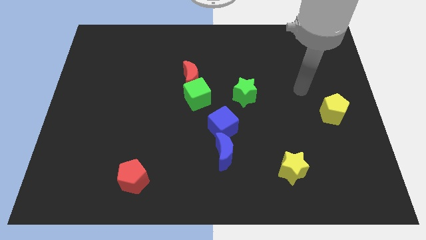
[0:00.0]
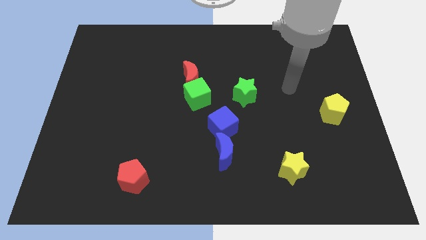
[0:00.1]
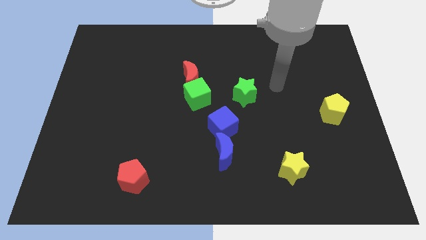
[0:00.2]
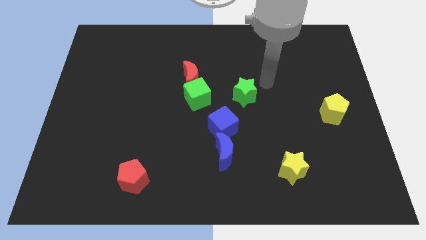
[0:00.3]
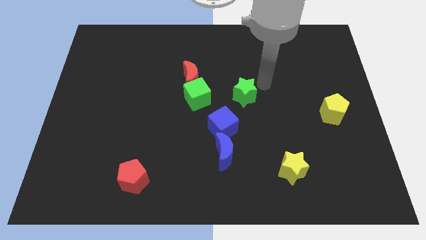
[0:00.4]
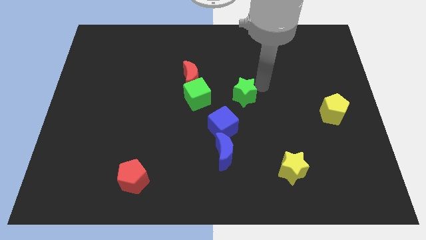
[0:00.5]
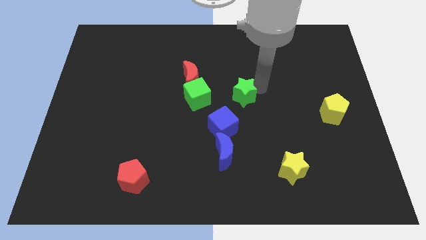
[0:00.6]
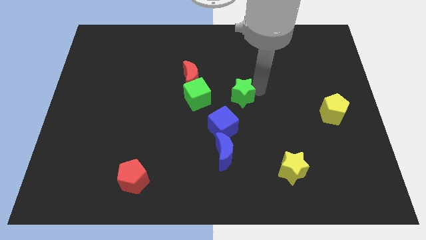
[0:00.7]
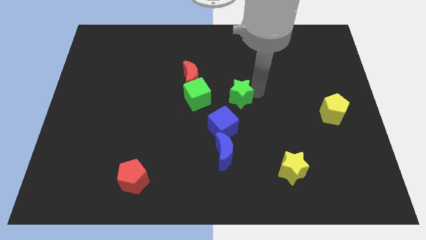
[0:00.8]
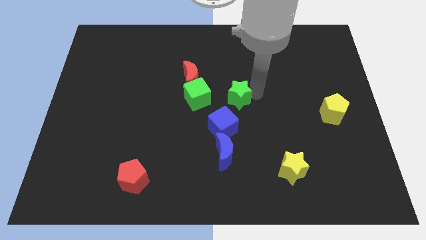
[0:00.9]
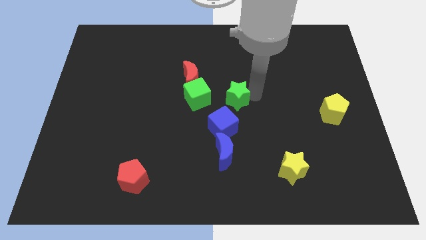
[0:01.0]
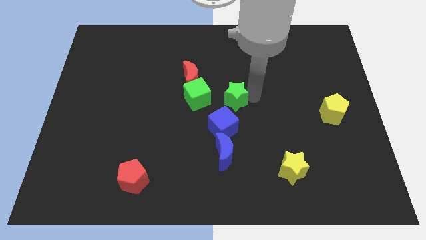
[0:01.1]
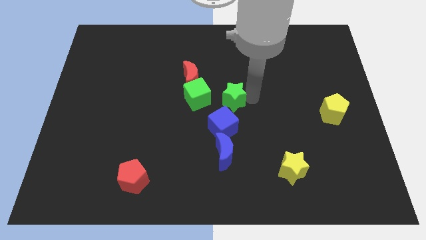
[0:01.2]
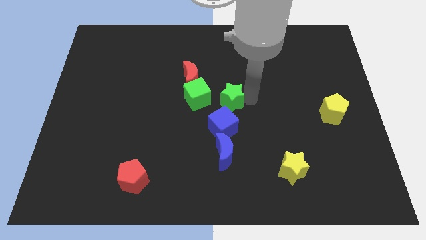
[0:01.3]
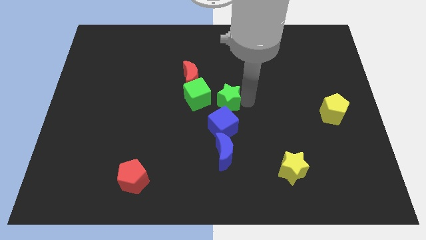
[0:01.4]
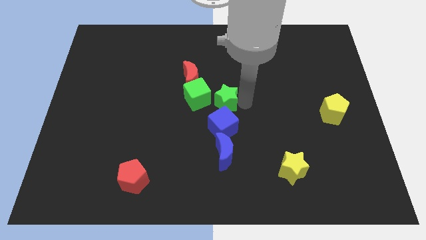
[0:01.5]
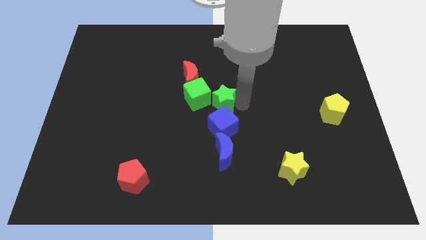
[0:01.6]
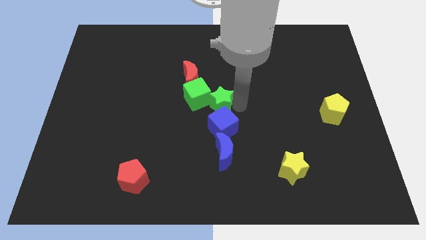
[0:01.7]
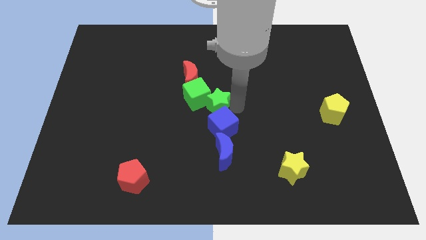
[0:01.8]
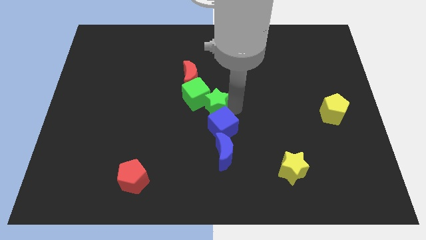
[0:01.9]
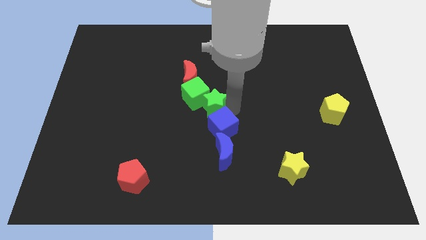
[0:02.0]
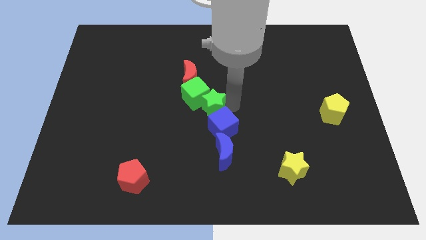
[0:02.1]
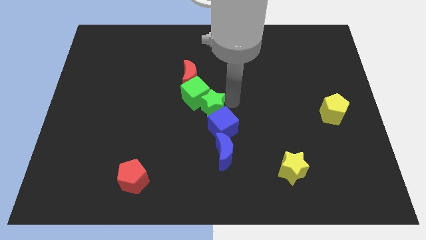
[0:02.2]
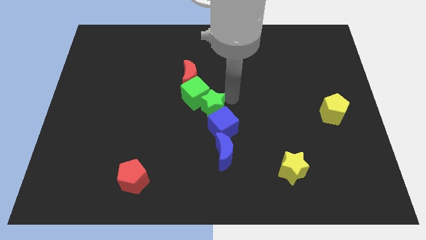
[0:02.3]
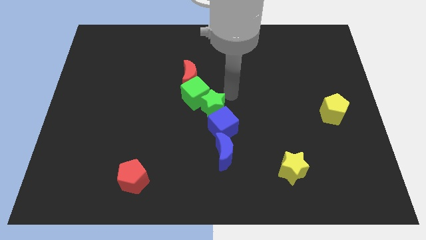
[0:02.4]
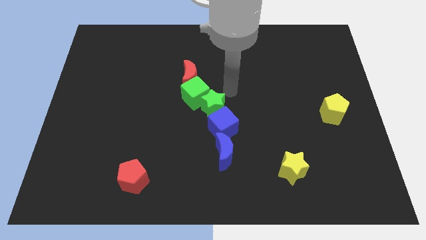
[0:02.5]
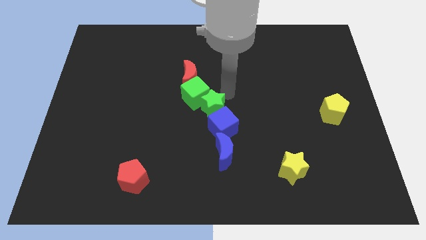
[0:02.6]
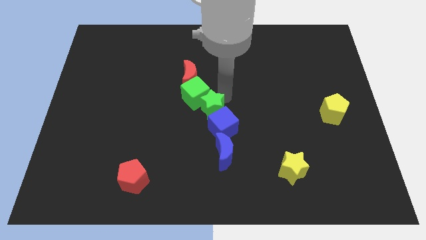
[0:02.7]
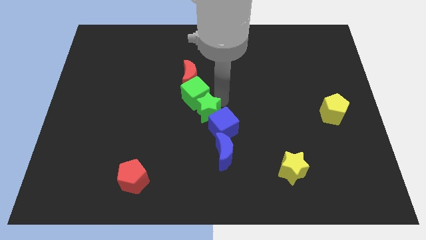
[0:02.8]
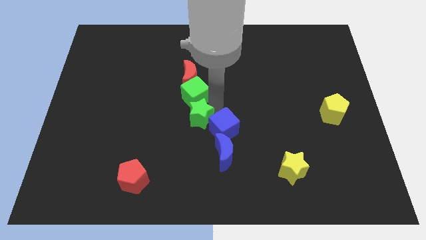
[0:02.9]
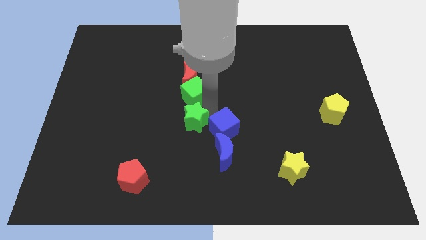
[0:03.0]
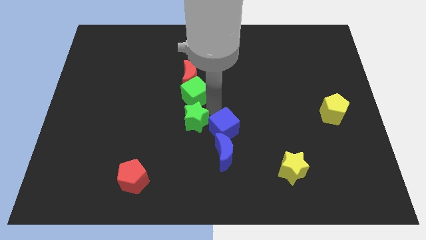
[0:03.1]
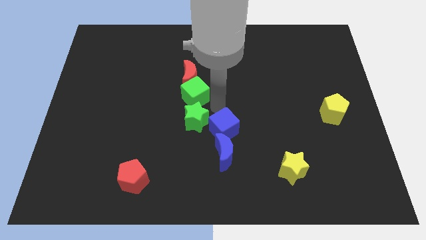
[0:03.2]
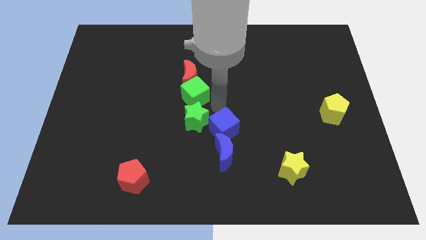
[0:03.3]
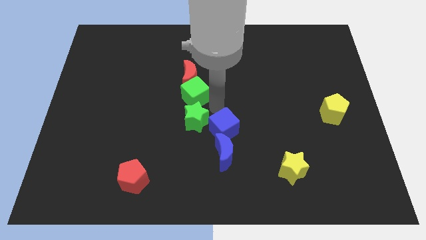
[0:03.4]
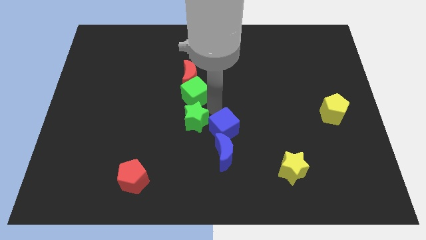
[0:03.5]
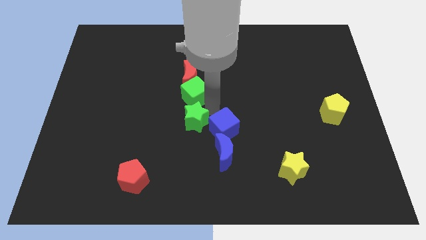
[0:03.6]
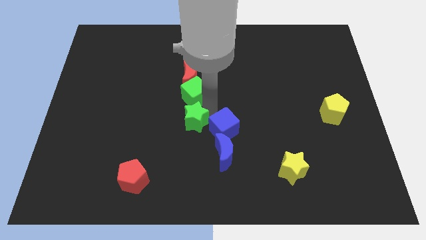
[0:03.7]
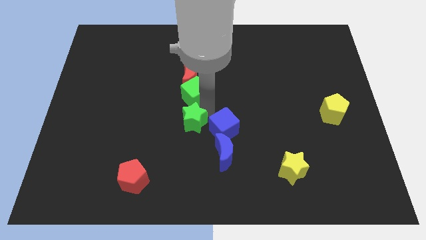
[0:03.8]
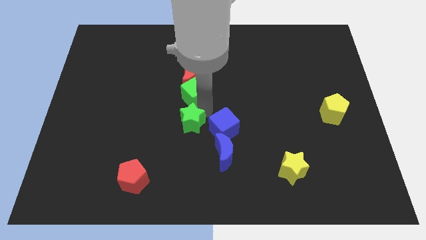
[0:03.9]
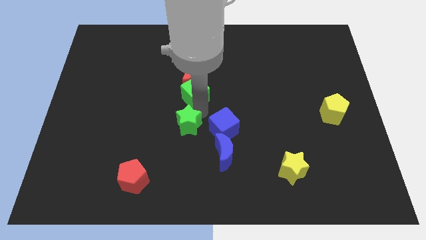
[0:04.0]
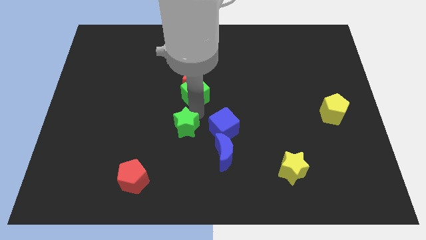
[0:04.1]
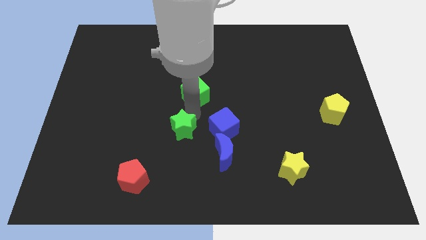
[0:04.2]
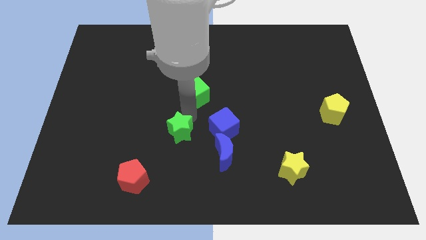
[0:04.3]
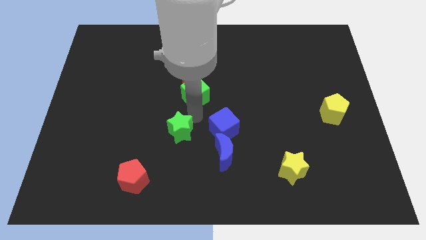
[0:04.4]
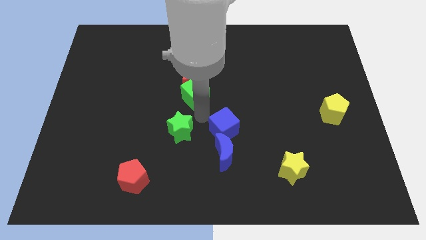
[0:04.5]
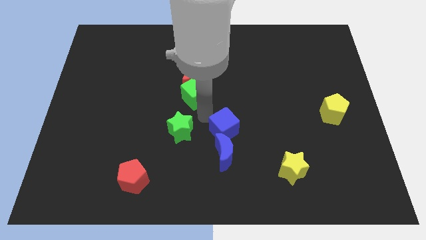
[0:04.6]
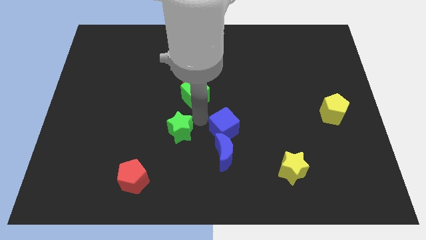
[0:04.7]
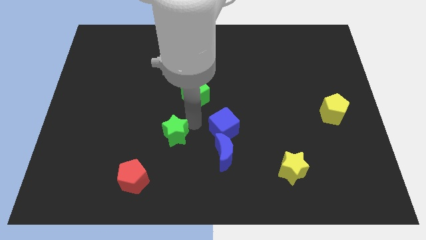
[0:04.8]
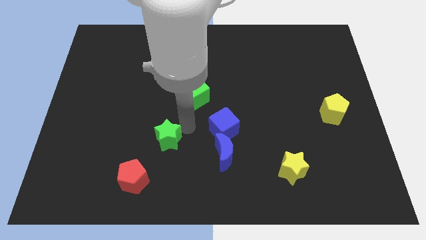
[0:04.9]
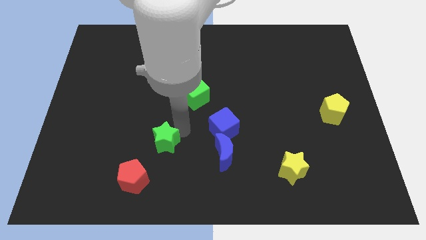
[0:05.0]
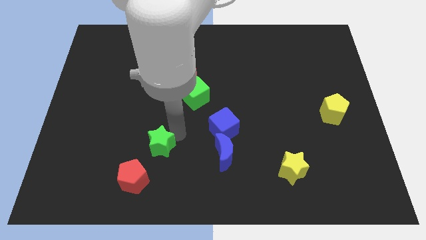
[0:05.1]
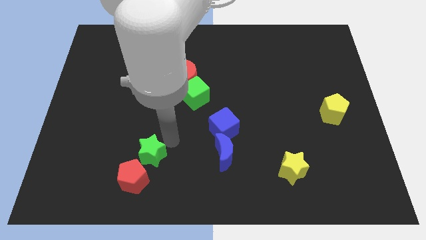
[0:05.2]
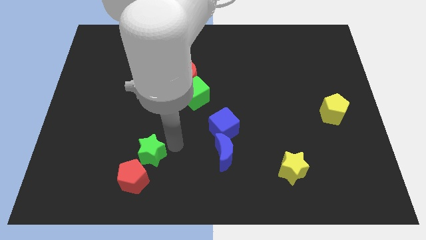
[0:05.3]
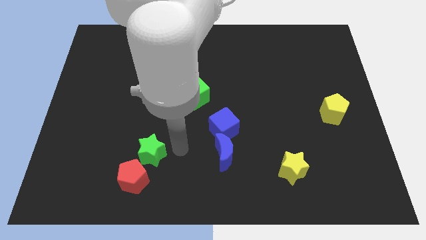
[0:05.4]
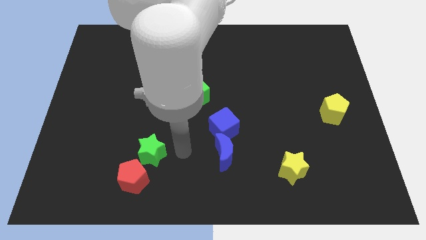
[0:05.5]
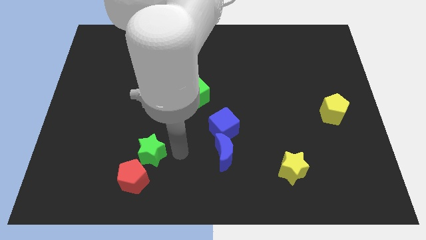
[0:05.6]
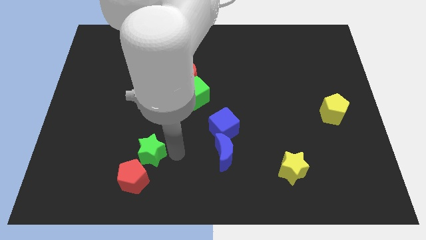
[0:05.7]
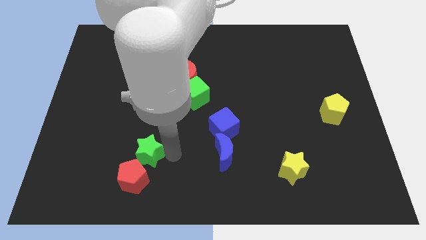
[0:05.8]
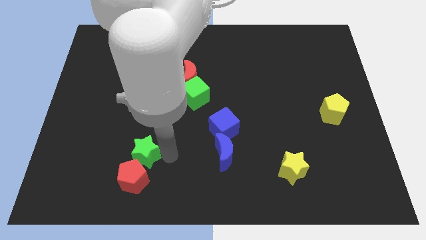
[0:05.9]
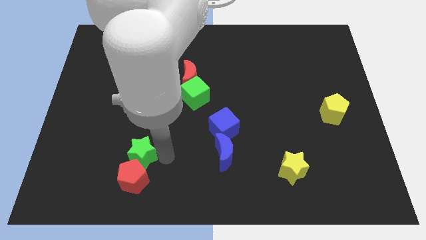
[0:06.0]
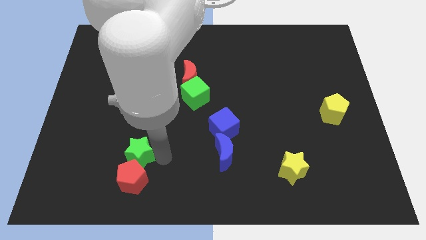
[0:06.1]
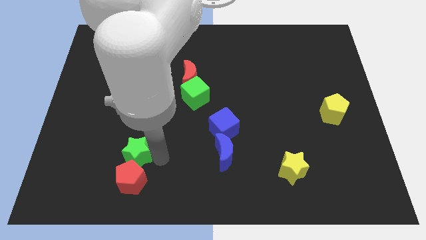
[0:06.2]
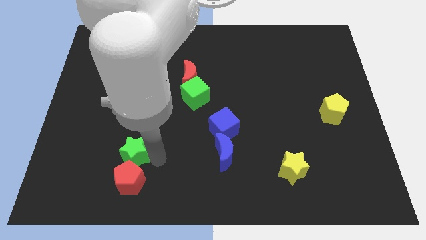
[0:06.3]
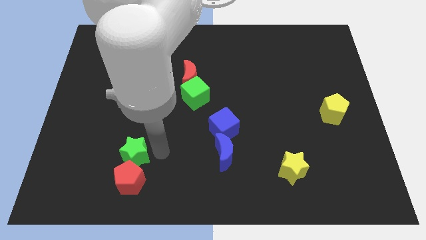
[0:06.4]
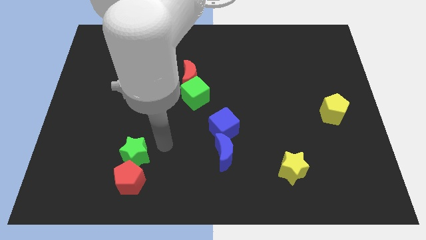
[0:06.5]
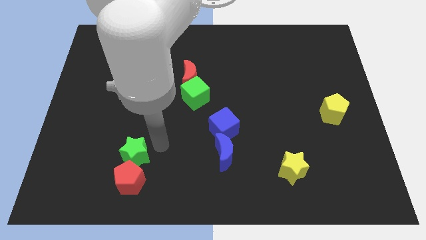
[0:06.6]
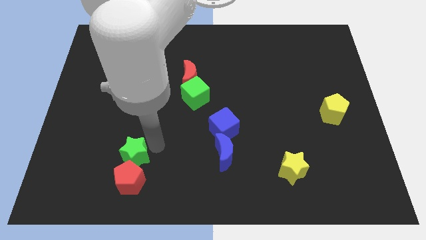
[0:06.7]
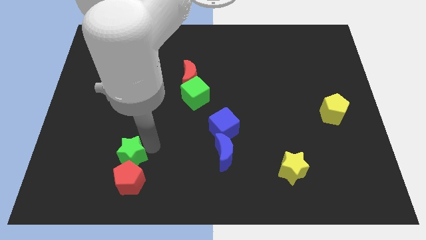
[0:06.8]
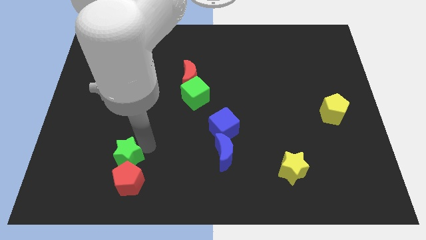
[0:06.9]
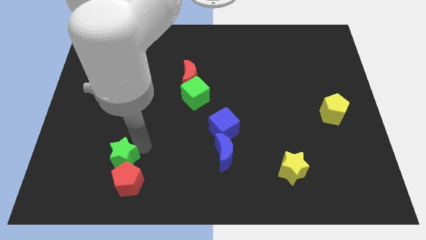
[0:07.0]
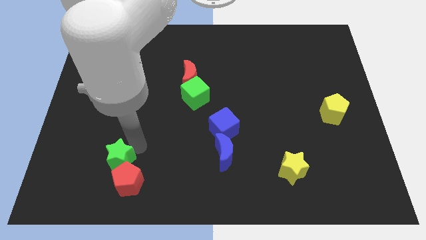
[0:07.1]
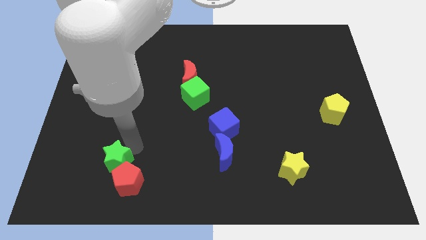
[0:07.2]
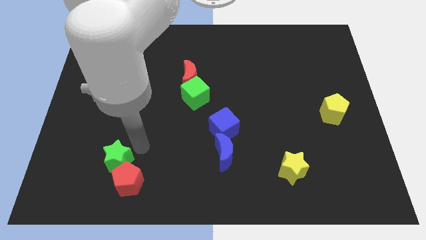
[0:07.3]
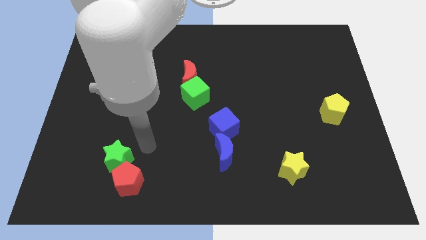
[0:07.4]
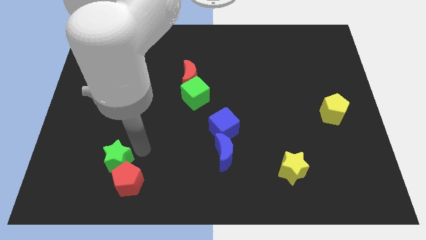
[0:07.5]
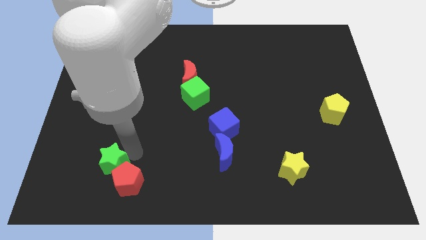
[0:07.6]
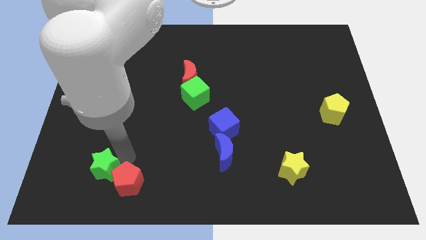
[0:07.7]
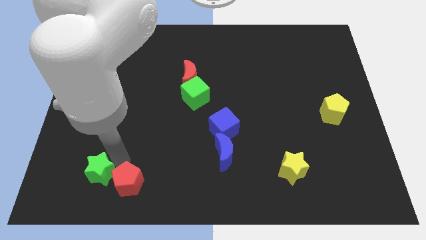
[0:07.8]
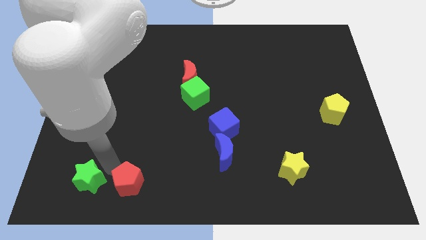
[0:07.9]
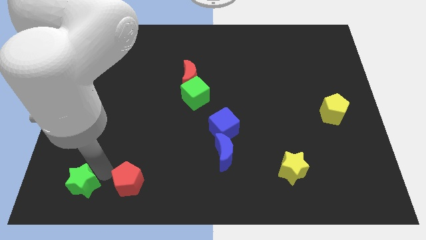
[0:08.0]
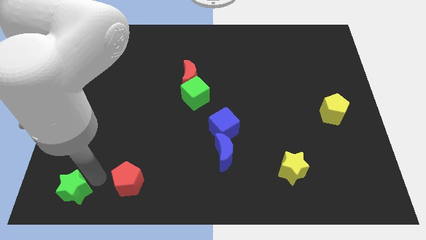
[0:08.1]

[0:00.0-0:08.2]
slide the green star to the lower left corner
